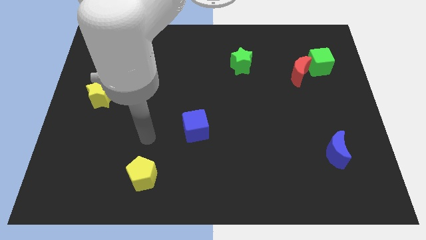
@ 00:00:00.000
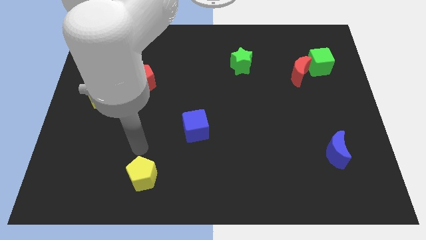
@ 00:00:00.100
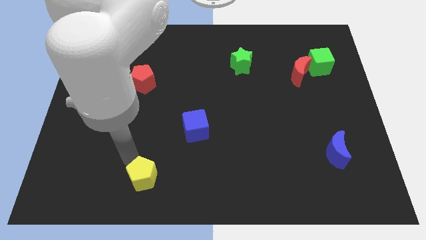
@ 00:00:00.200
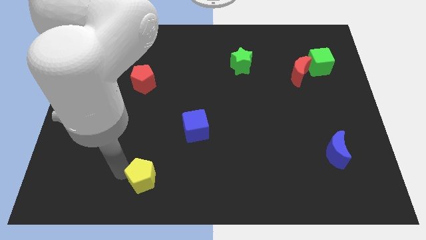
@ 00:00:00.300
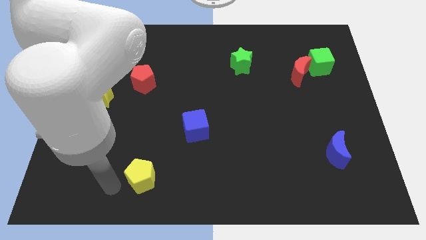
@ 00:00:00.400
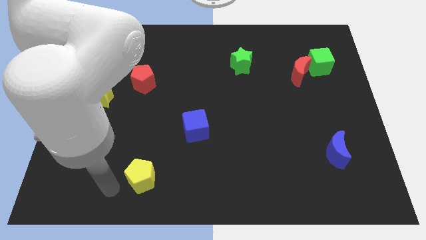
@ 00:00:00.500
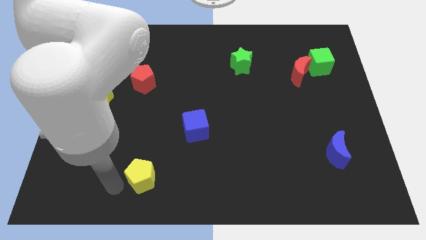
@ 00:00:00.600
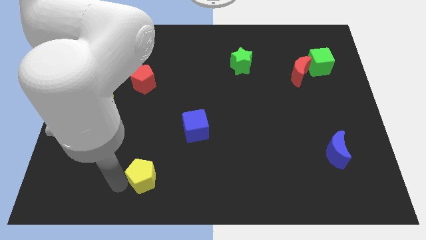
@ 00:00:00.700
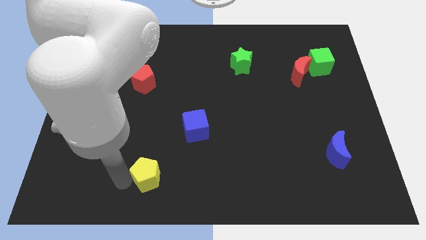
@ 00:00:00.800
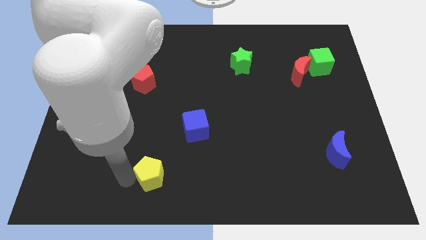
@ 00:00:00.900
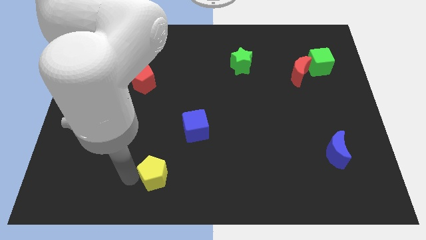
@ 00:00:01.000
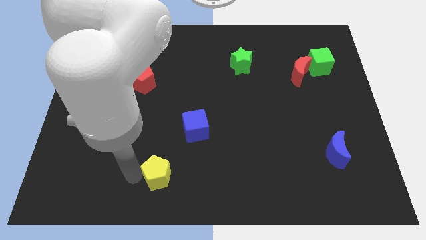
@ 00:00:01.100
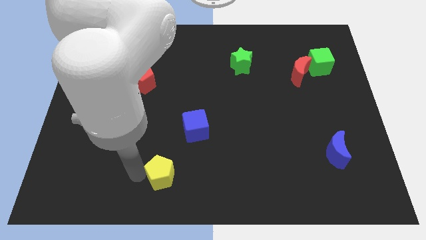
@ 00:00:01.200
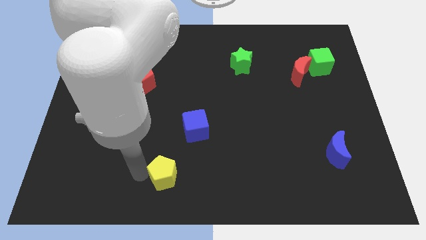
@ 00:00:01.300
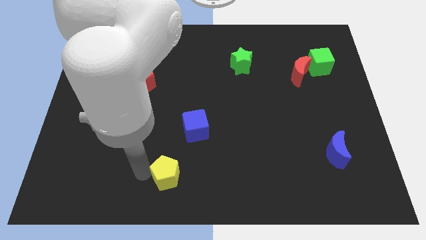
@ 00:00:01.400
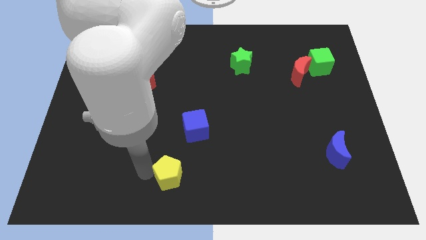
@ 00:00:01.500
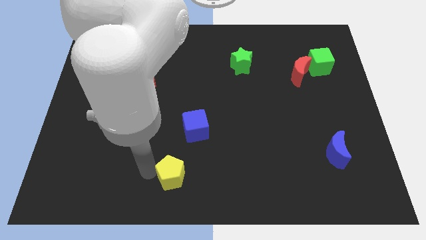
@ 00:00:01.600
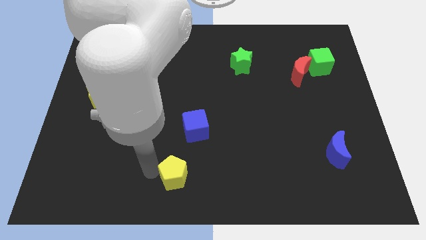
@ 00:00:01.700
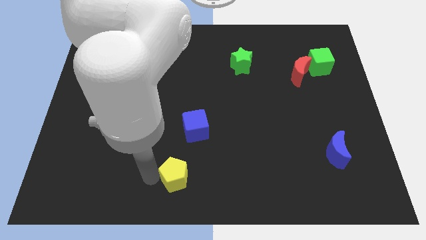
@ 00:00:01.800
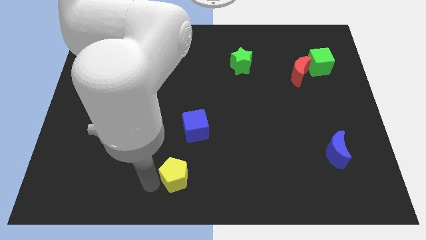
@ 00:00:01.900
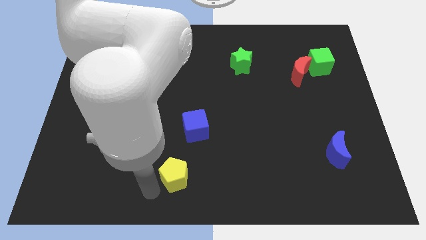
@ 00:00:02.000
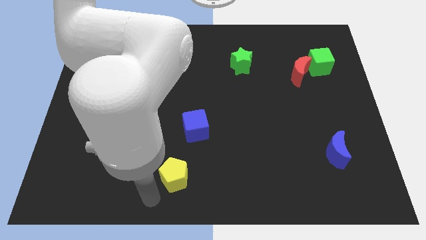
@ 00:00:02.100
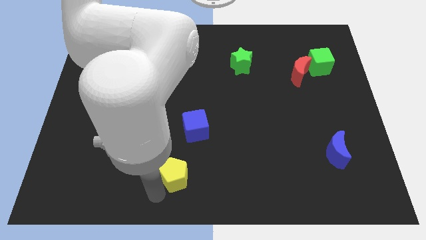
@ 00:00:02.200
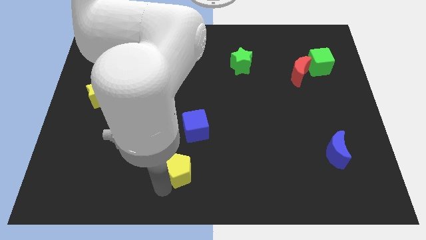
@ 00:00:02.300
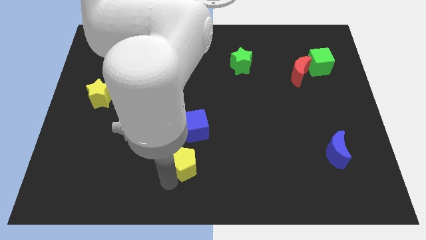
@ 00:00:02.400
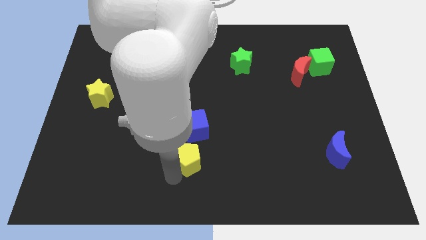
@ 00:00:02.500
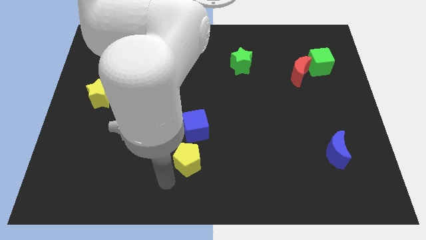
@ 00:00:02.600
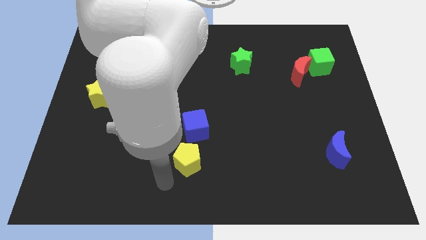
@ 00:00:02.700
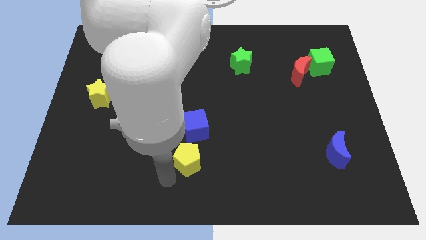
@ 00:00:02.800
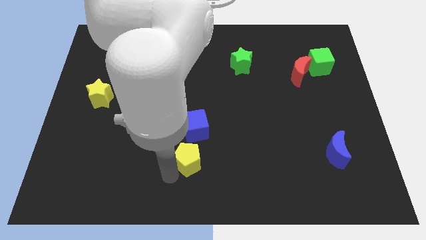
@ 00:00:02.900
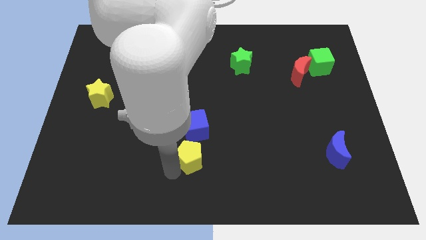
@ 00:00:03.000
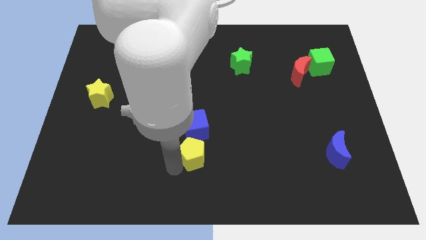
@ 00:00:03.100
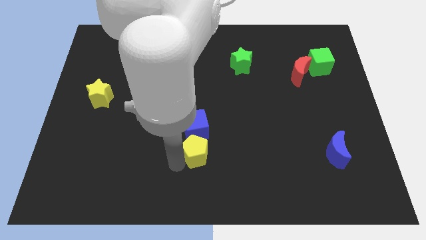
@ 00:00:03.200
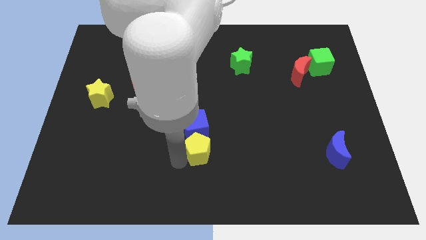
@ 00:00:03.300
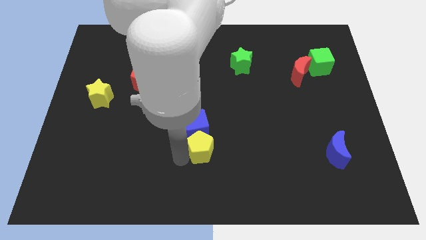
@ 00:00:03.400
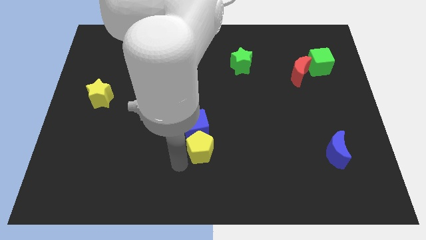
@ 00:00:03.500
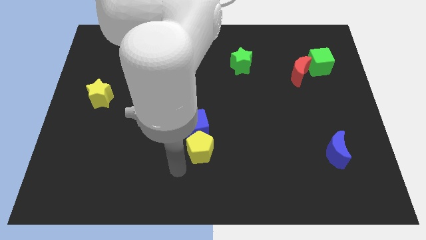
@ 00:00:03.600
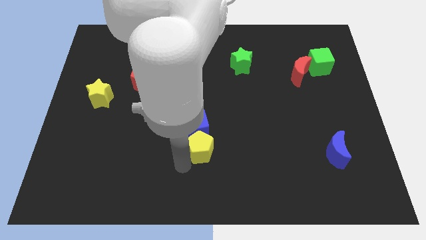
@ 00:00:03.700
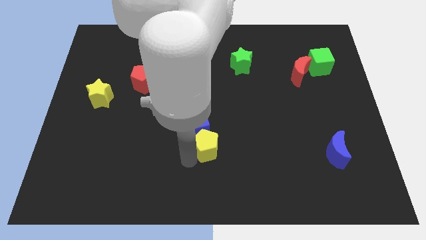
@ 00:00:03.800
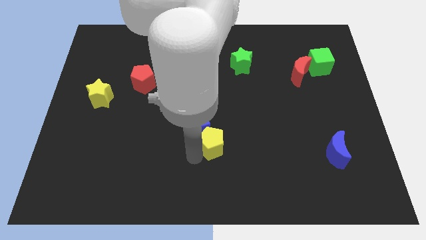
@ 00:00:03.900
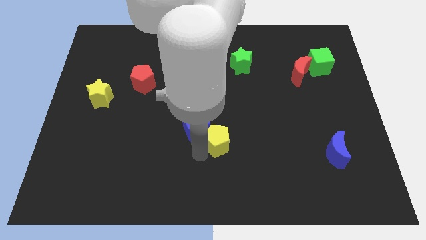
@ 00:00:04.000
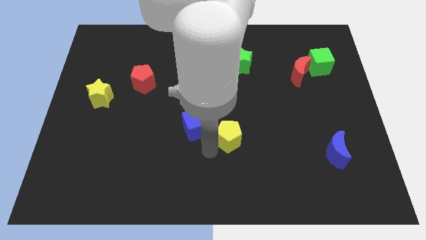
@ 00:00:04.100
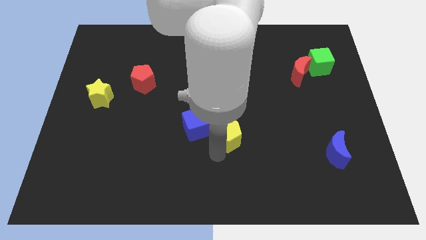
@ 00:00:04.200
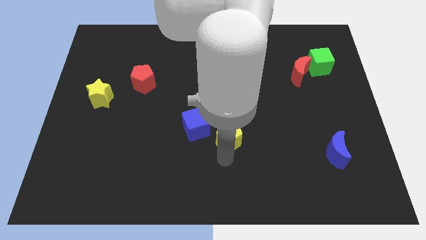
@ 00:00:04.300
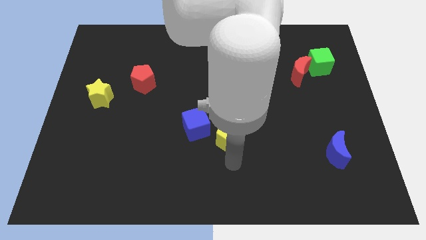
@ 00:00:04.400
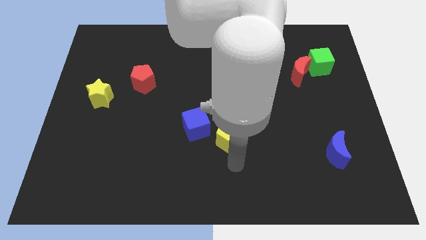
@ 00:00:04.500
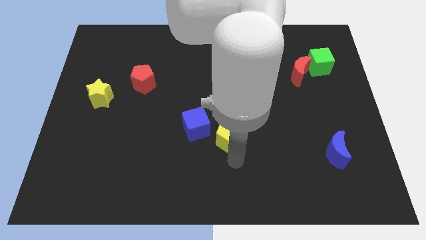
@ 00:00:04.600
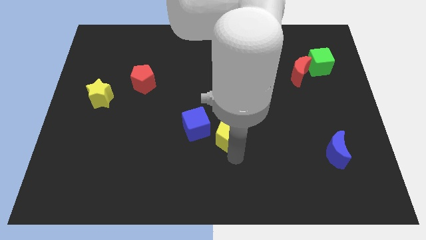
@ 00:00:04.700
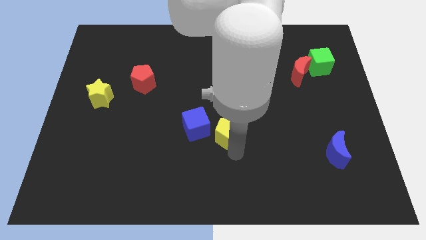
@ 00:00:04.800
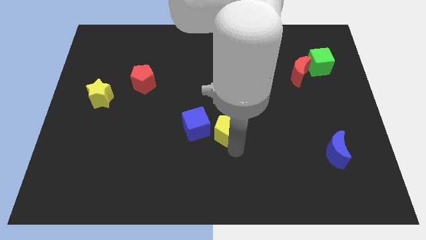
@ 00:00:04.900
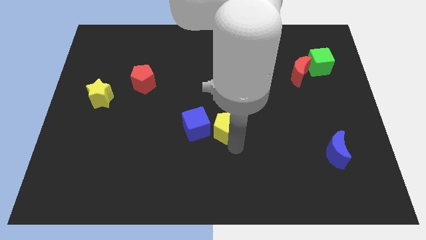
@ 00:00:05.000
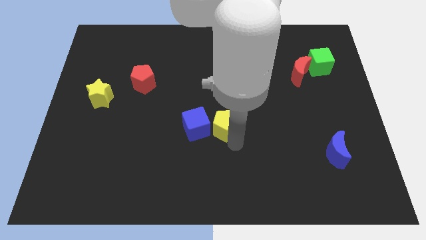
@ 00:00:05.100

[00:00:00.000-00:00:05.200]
put the yellow pentagon diagonally up and to the right of the blue cube

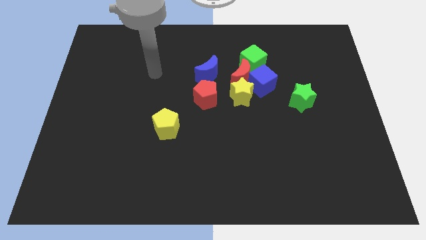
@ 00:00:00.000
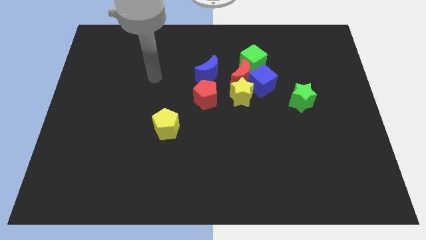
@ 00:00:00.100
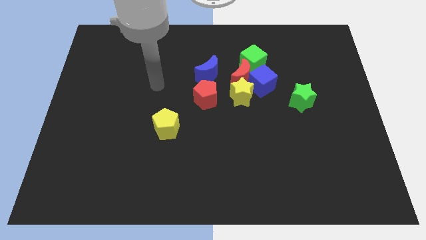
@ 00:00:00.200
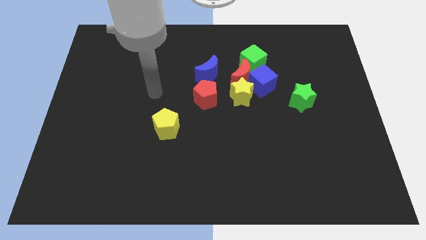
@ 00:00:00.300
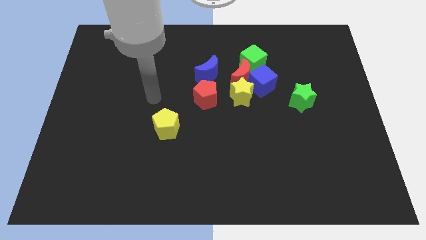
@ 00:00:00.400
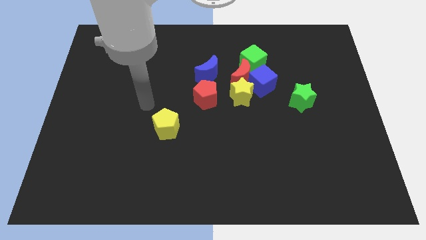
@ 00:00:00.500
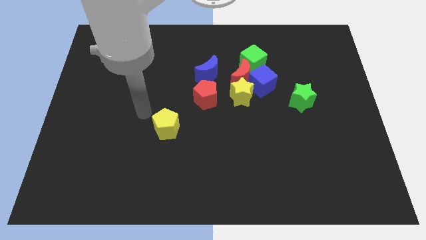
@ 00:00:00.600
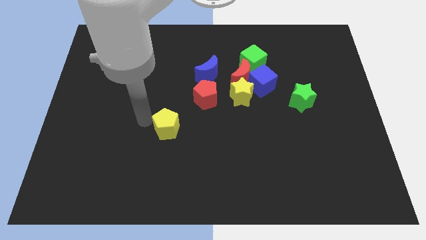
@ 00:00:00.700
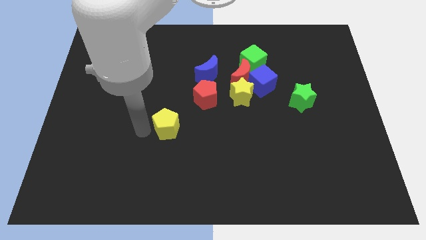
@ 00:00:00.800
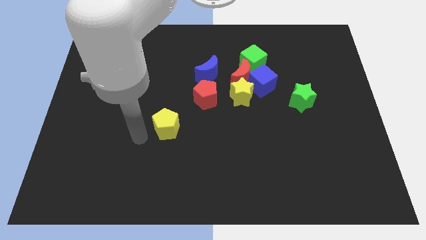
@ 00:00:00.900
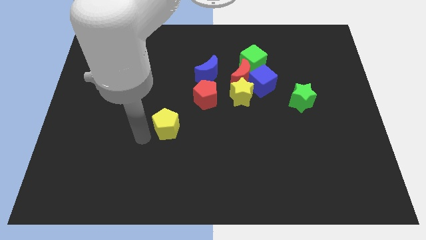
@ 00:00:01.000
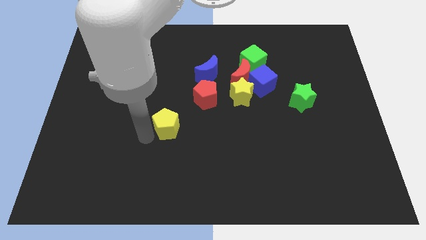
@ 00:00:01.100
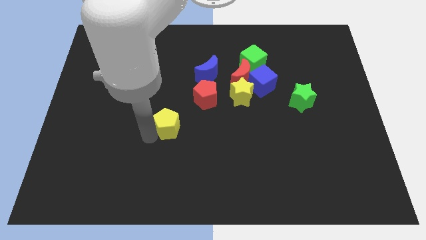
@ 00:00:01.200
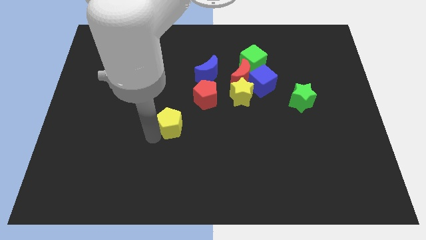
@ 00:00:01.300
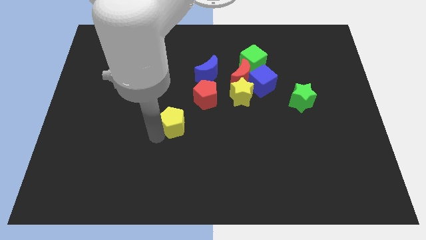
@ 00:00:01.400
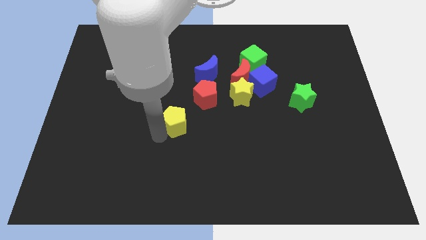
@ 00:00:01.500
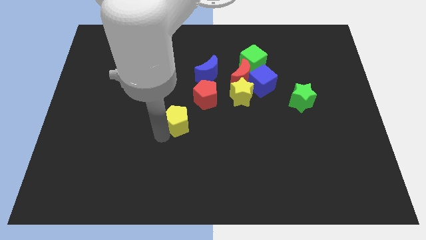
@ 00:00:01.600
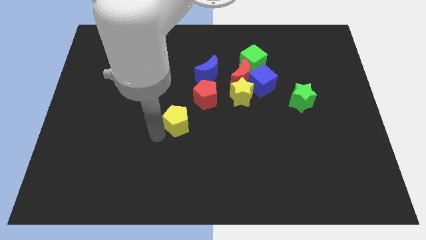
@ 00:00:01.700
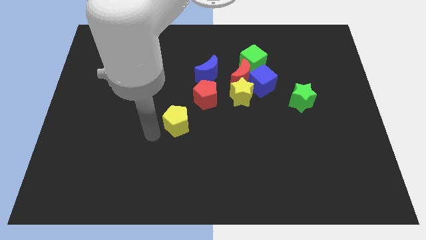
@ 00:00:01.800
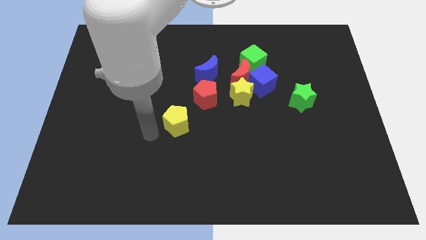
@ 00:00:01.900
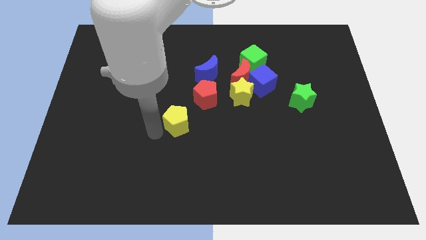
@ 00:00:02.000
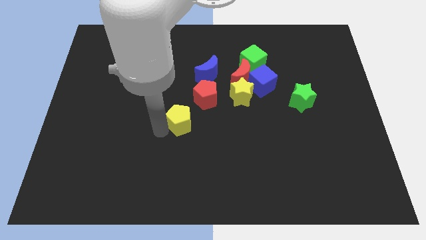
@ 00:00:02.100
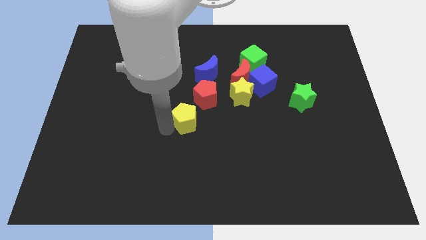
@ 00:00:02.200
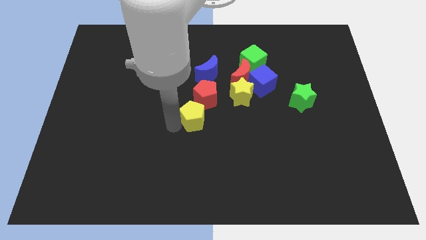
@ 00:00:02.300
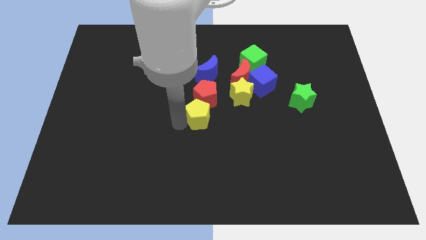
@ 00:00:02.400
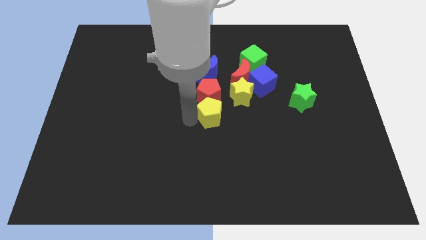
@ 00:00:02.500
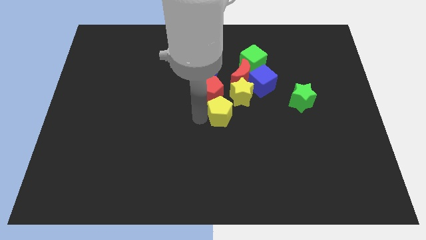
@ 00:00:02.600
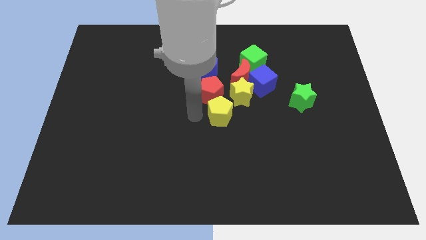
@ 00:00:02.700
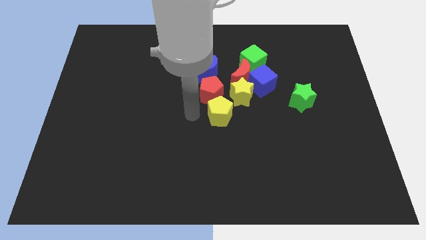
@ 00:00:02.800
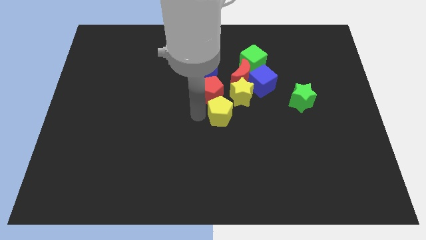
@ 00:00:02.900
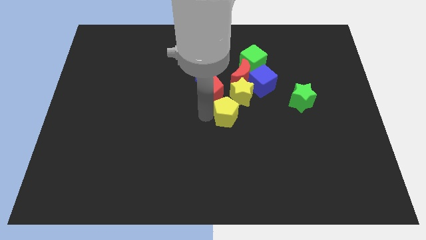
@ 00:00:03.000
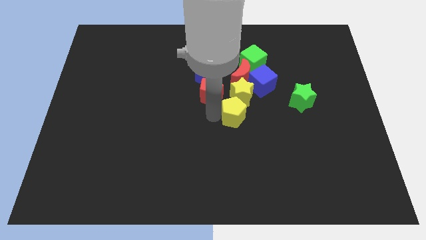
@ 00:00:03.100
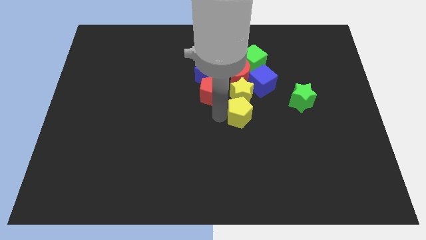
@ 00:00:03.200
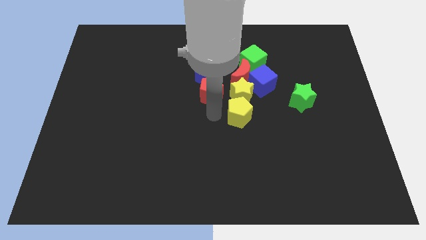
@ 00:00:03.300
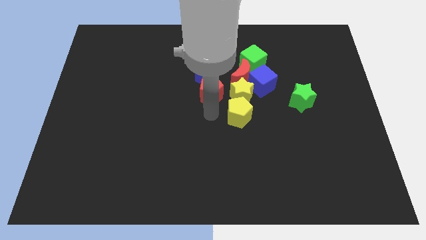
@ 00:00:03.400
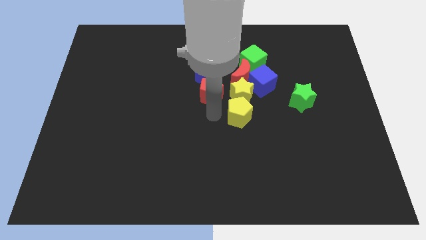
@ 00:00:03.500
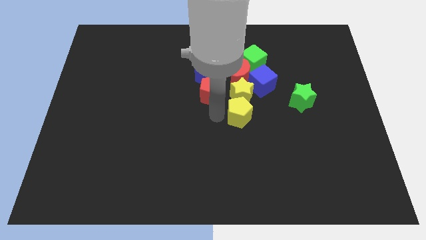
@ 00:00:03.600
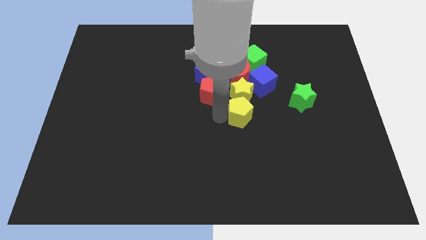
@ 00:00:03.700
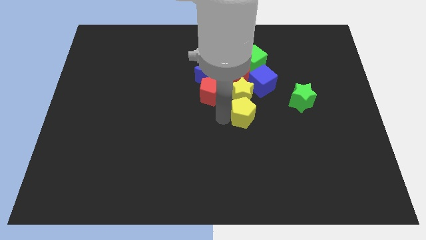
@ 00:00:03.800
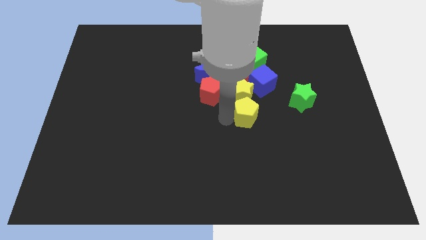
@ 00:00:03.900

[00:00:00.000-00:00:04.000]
move the yellow pentagon to the bottom side of the blue cube
